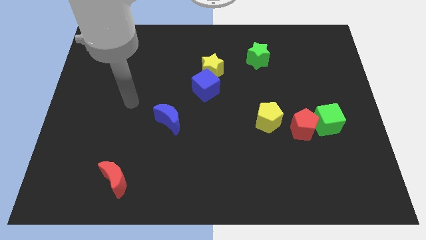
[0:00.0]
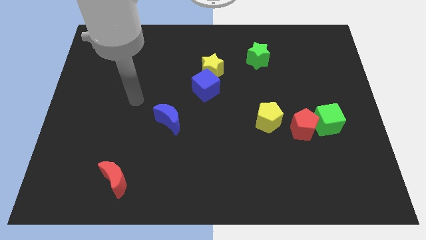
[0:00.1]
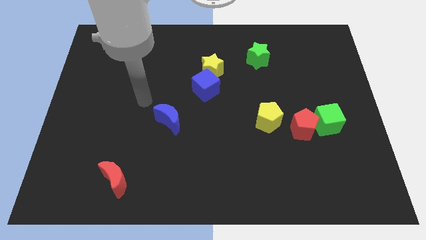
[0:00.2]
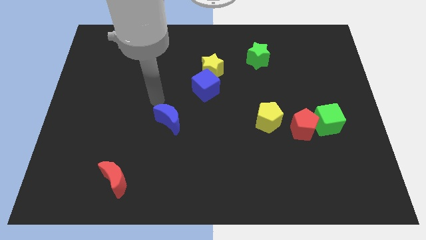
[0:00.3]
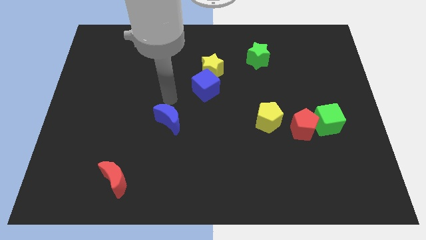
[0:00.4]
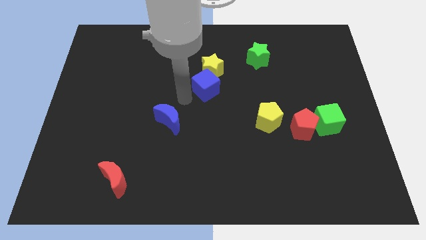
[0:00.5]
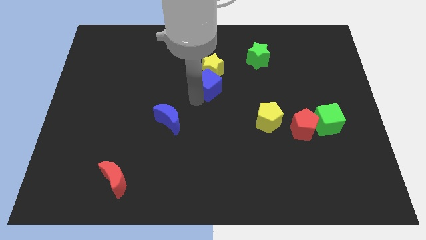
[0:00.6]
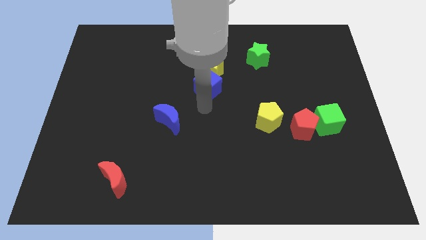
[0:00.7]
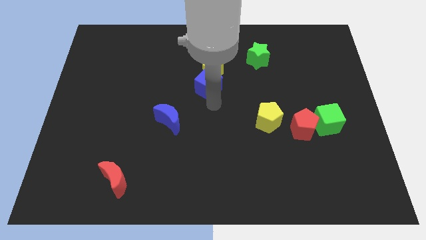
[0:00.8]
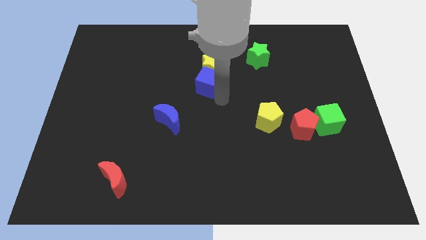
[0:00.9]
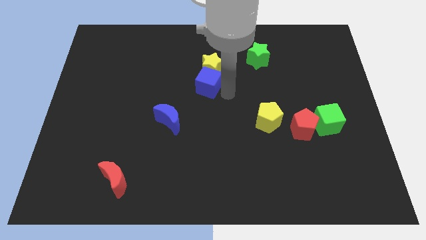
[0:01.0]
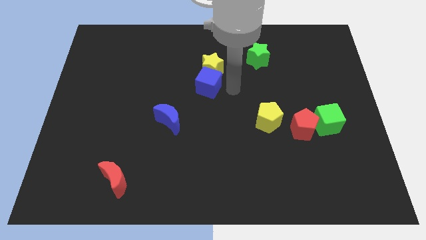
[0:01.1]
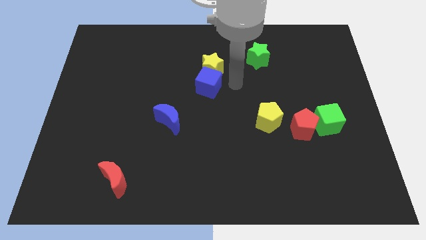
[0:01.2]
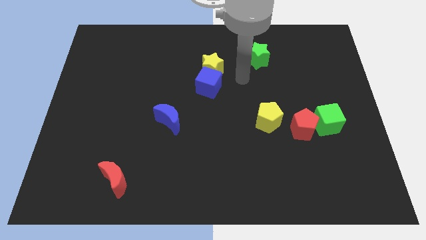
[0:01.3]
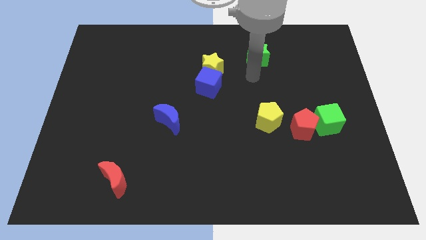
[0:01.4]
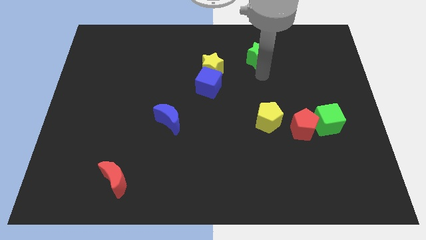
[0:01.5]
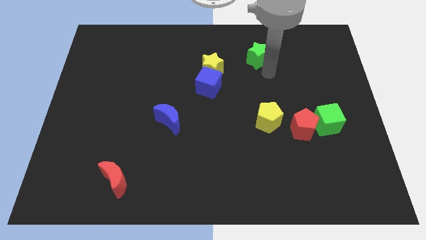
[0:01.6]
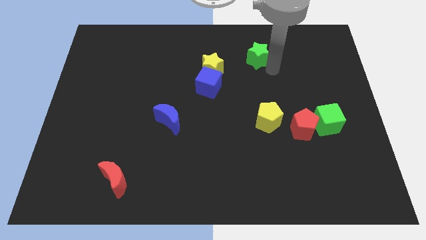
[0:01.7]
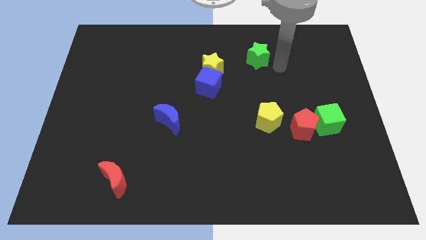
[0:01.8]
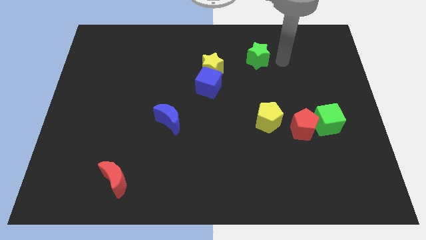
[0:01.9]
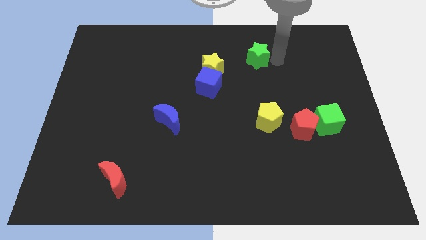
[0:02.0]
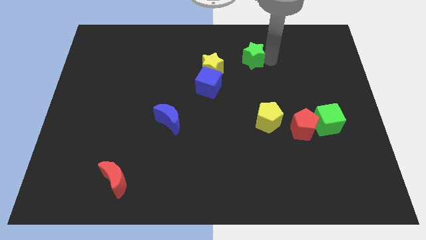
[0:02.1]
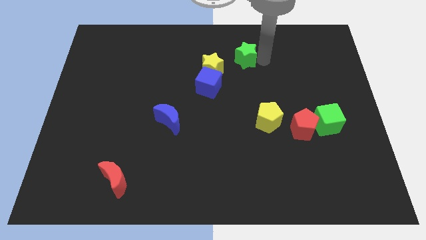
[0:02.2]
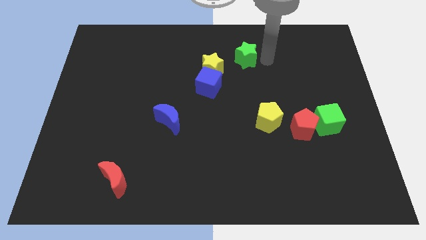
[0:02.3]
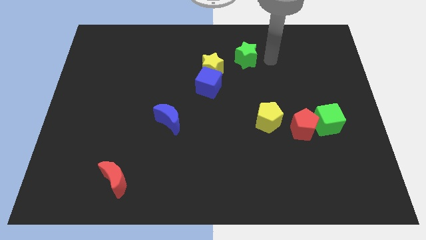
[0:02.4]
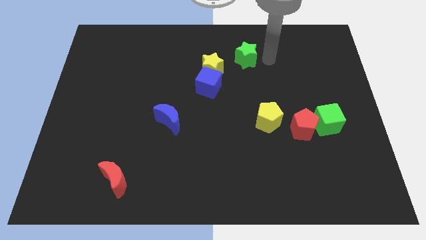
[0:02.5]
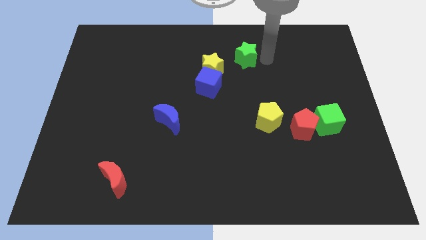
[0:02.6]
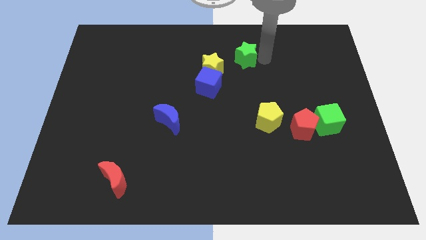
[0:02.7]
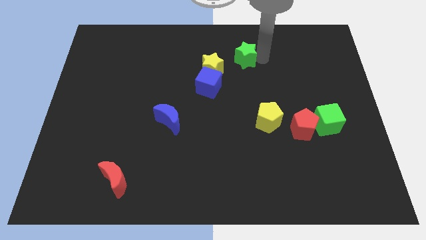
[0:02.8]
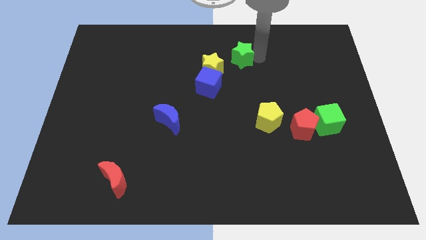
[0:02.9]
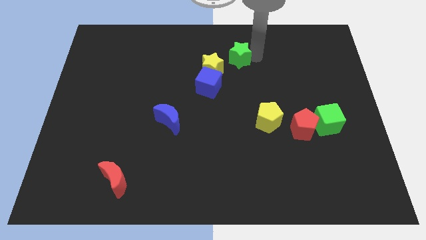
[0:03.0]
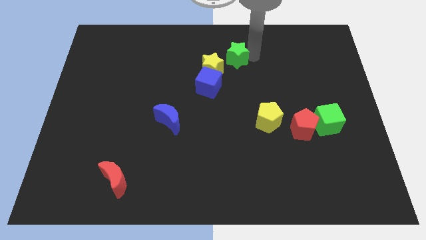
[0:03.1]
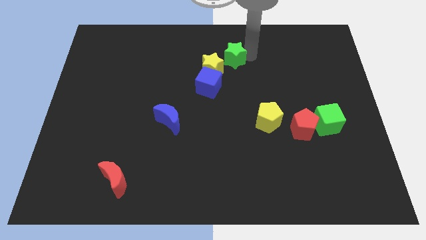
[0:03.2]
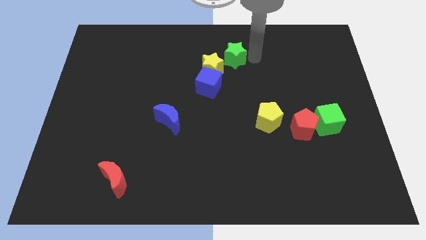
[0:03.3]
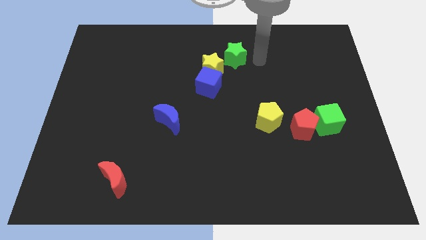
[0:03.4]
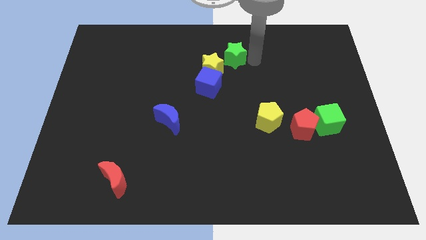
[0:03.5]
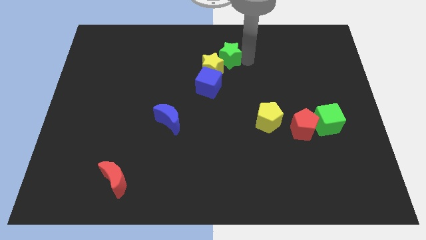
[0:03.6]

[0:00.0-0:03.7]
push the green star to the left a bit

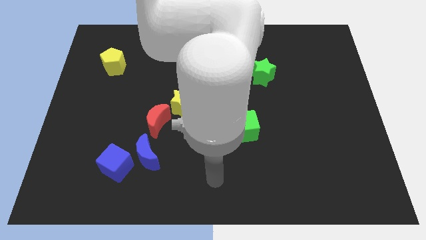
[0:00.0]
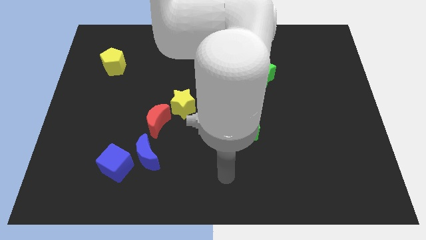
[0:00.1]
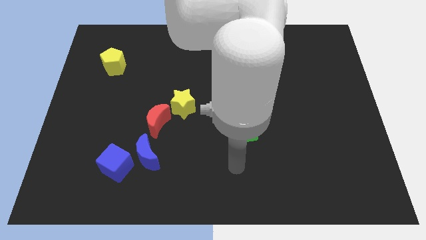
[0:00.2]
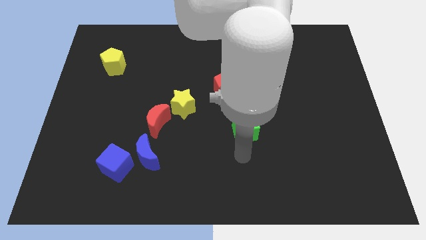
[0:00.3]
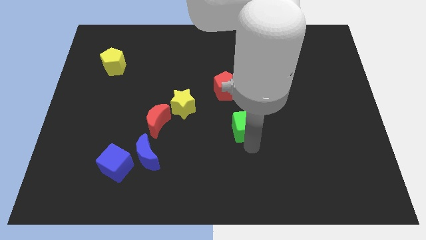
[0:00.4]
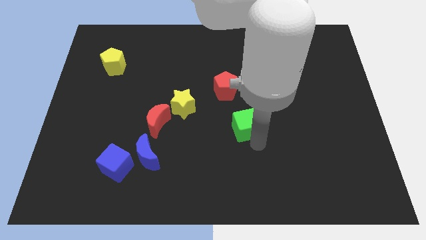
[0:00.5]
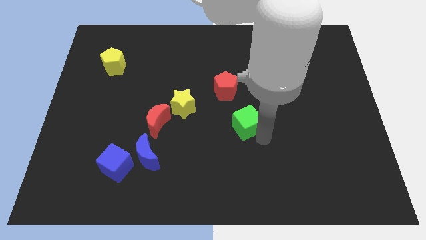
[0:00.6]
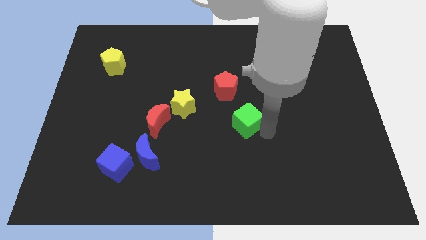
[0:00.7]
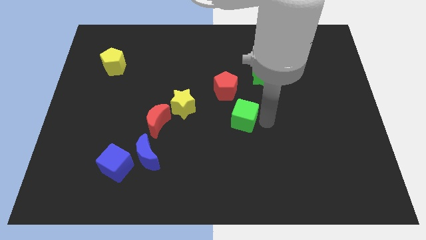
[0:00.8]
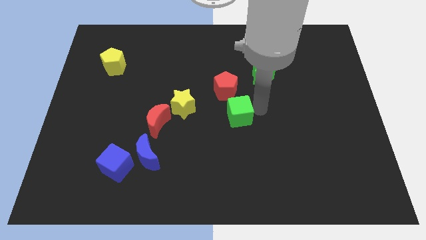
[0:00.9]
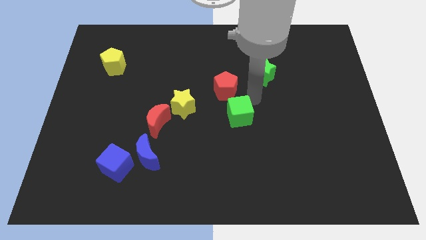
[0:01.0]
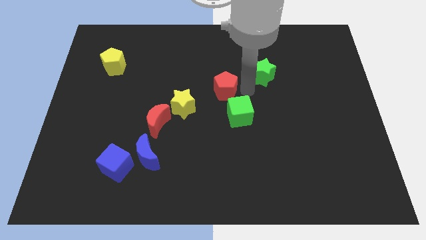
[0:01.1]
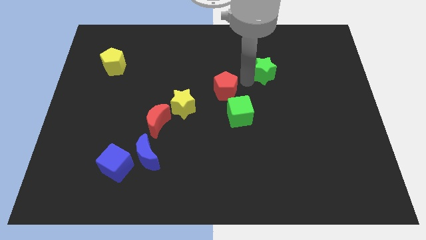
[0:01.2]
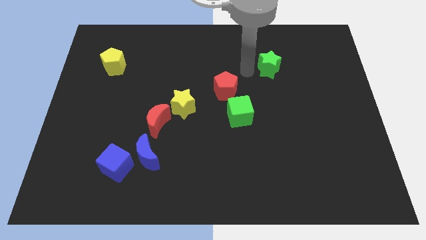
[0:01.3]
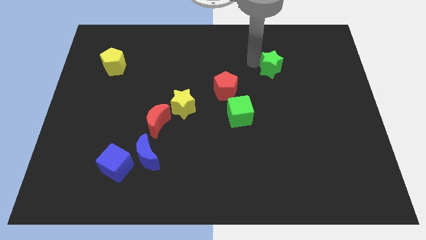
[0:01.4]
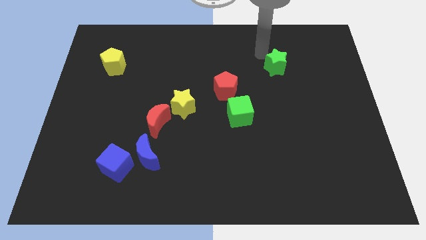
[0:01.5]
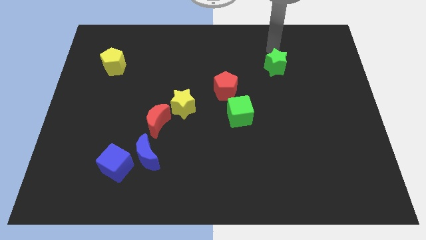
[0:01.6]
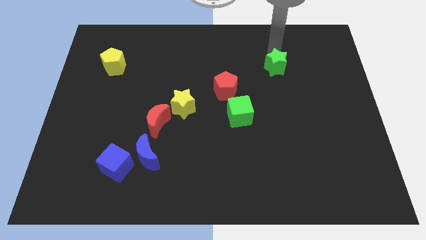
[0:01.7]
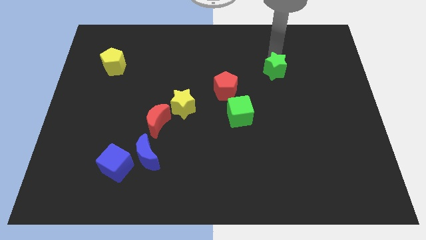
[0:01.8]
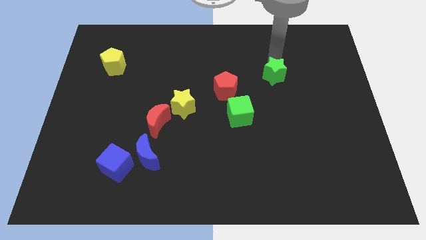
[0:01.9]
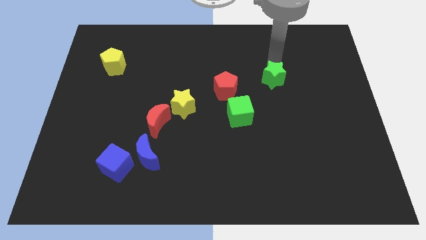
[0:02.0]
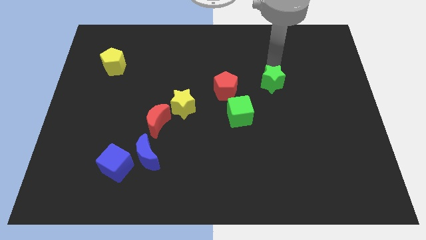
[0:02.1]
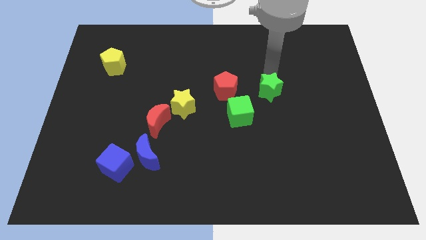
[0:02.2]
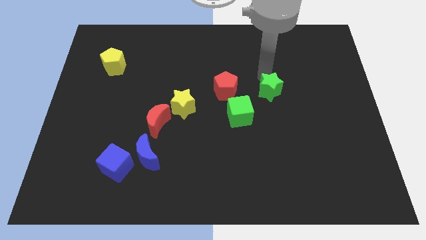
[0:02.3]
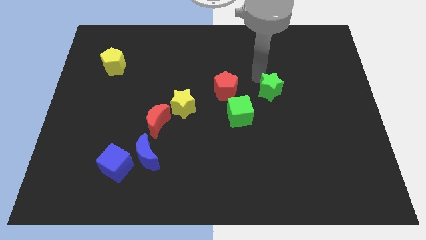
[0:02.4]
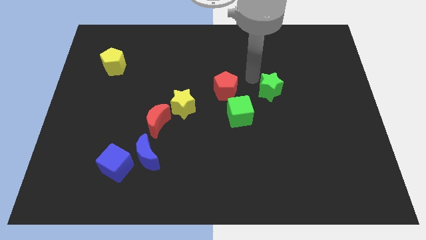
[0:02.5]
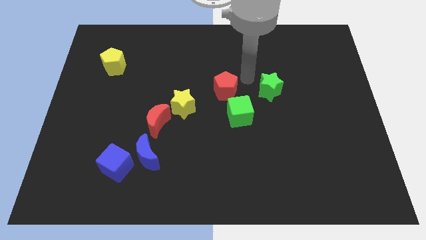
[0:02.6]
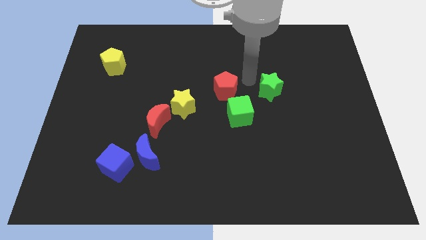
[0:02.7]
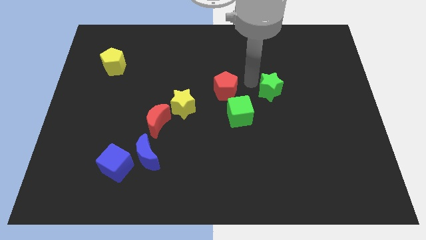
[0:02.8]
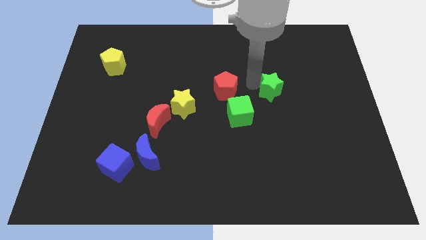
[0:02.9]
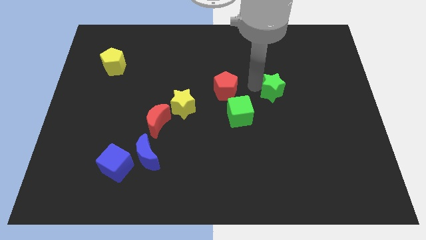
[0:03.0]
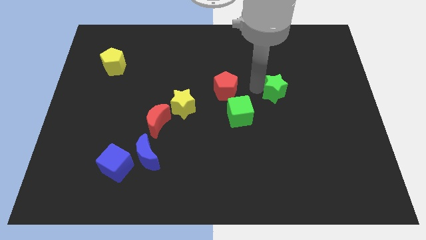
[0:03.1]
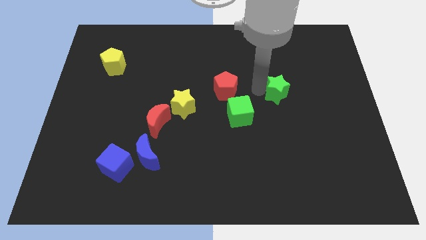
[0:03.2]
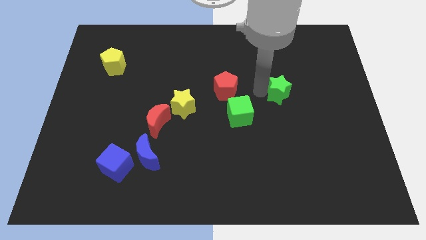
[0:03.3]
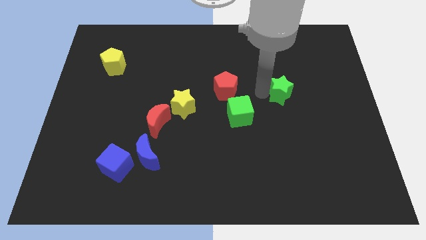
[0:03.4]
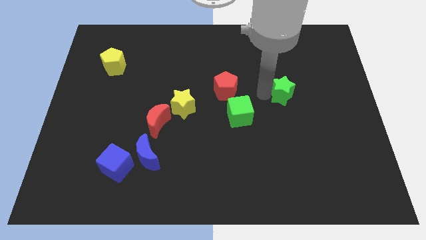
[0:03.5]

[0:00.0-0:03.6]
push the green star a bit diagonally down and to the right

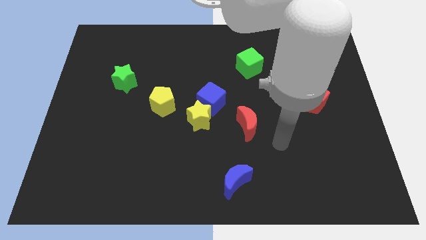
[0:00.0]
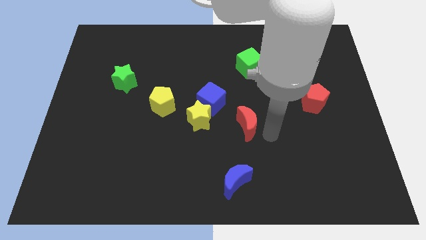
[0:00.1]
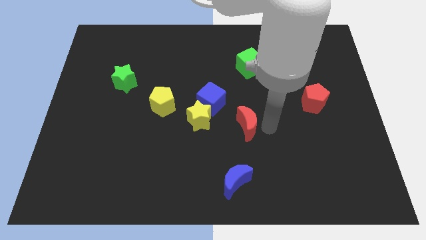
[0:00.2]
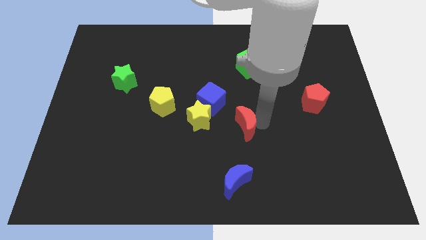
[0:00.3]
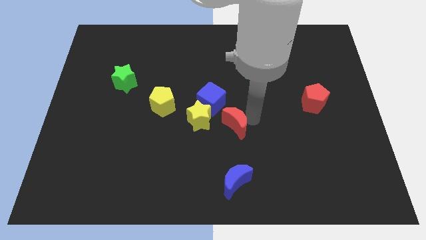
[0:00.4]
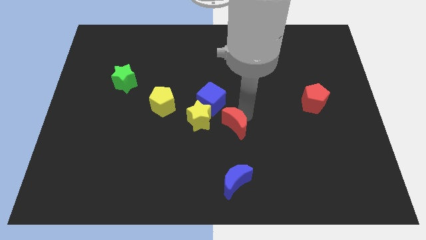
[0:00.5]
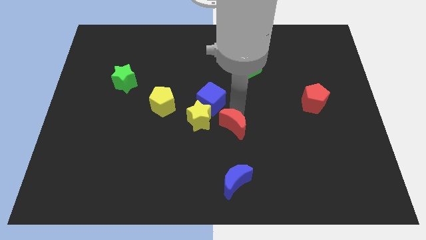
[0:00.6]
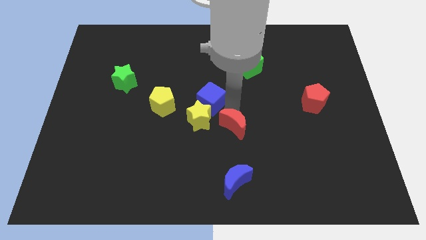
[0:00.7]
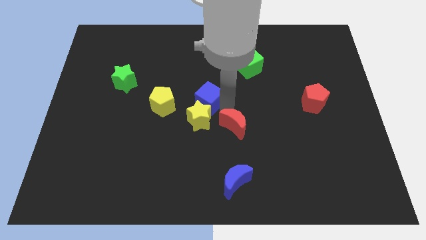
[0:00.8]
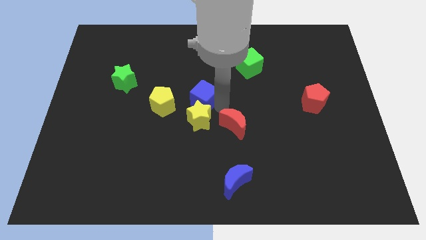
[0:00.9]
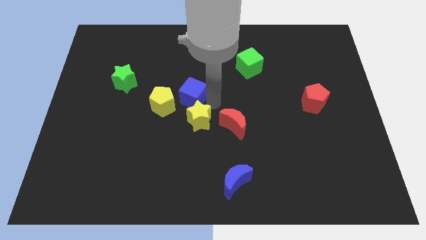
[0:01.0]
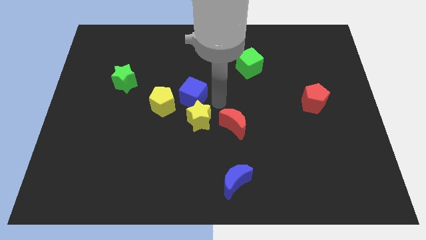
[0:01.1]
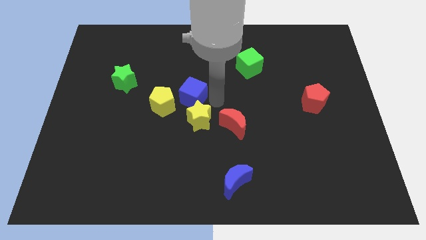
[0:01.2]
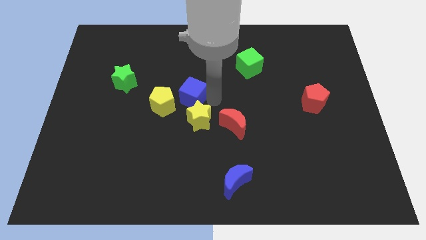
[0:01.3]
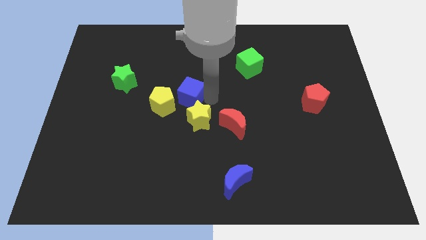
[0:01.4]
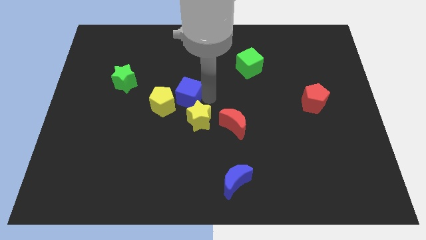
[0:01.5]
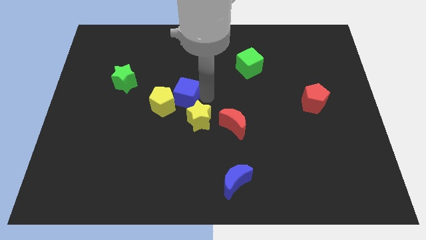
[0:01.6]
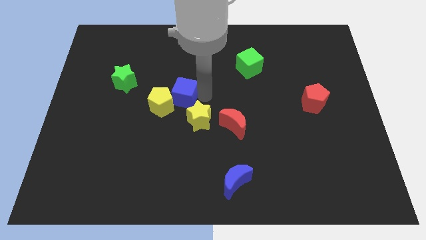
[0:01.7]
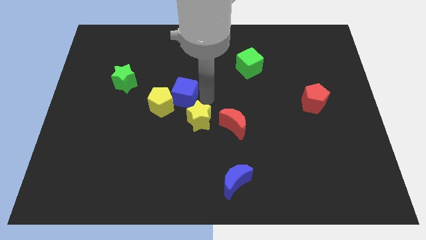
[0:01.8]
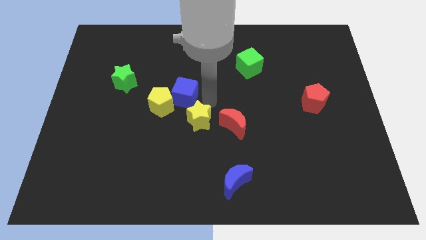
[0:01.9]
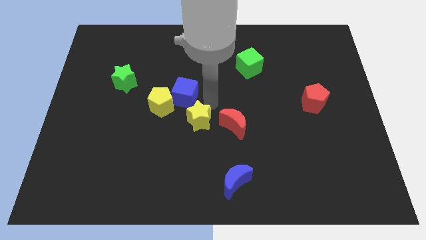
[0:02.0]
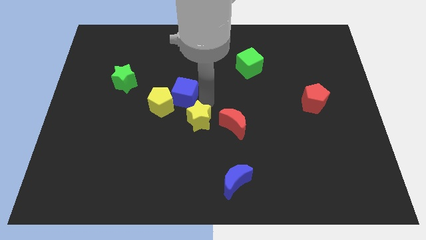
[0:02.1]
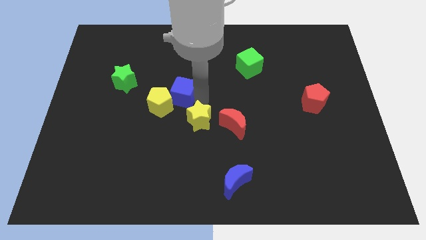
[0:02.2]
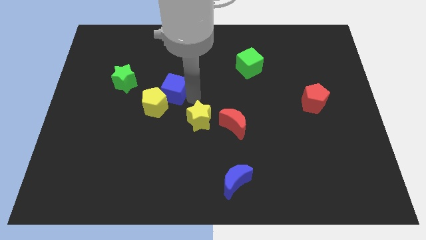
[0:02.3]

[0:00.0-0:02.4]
slightly move the blue cube to the left
